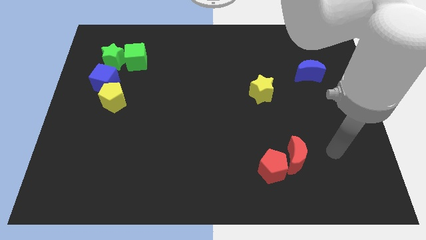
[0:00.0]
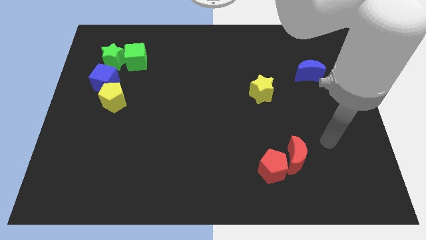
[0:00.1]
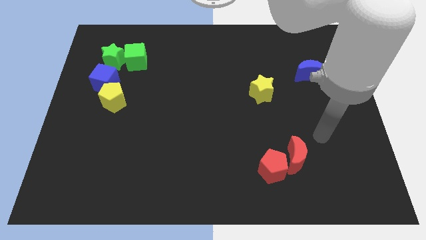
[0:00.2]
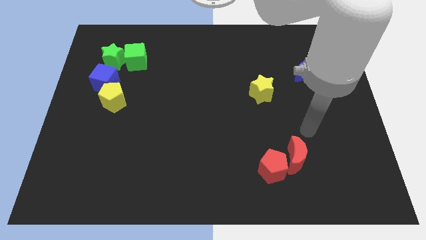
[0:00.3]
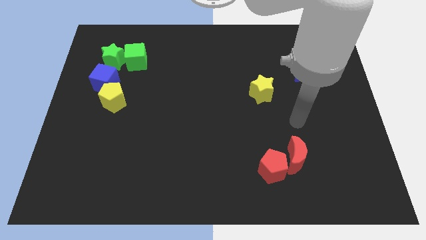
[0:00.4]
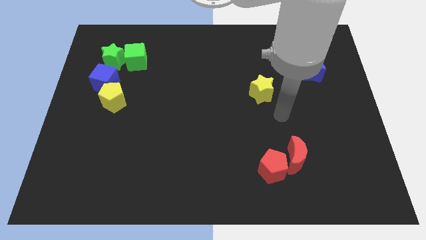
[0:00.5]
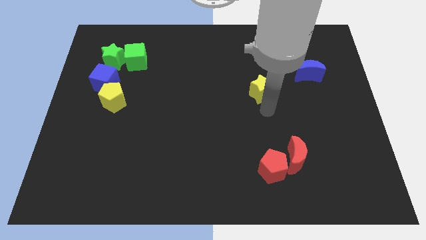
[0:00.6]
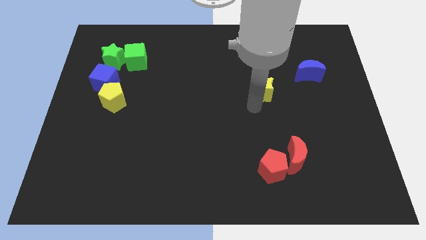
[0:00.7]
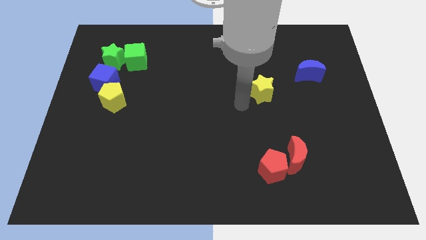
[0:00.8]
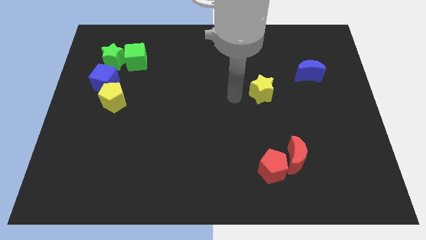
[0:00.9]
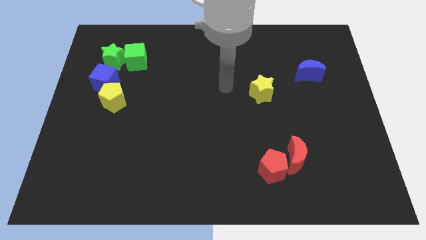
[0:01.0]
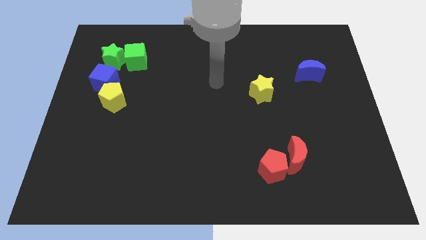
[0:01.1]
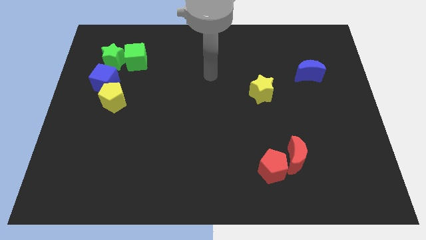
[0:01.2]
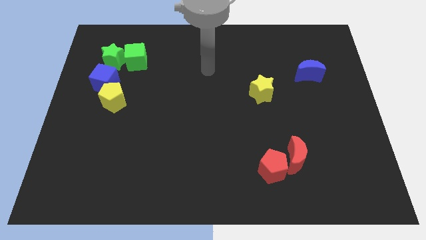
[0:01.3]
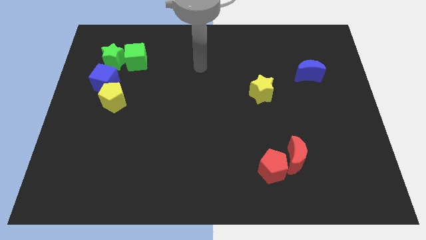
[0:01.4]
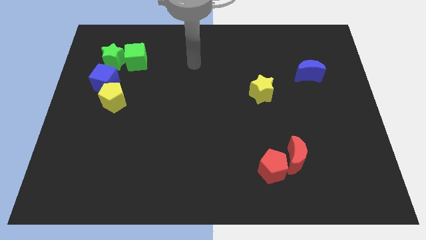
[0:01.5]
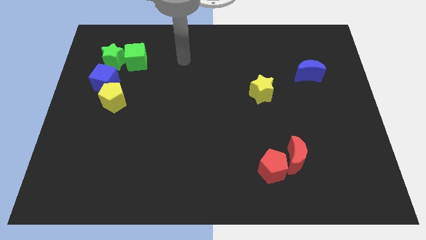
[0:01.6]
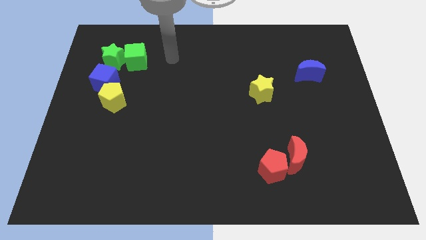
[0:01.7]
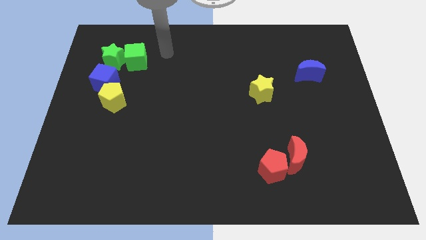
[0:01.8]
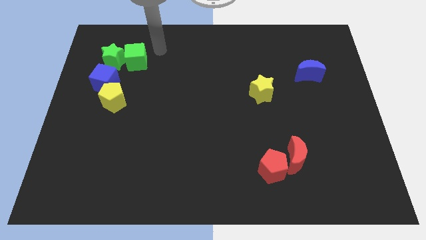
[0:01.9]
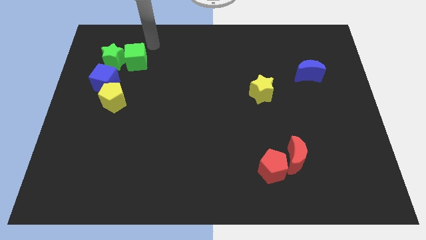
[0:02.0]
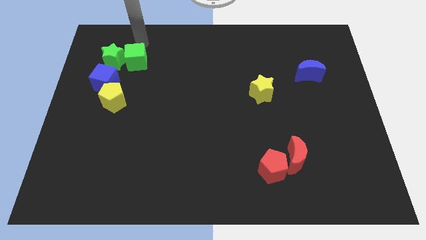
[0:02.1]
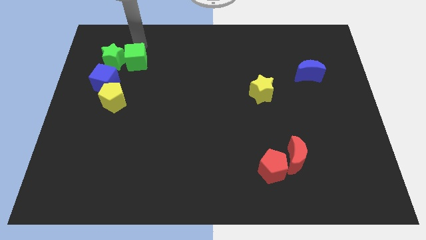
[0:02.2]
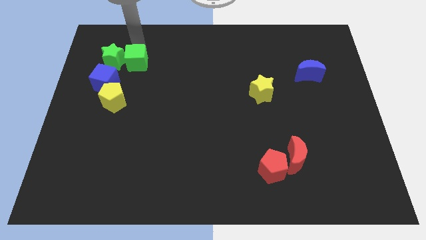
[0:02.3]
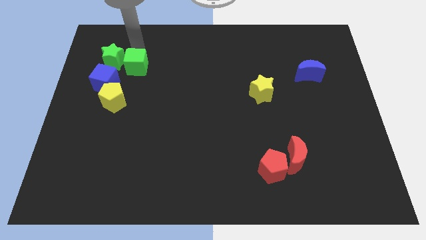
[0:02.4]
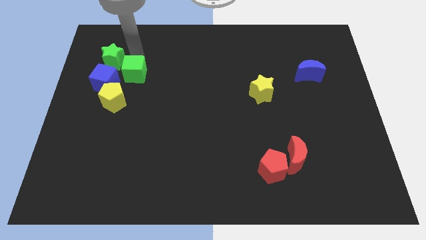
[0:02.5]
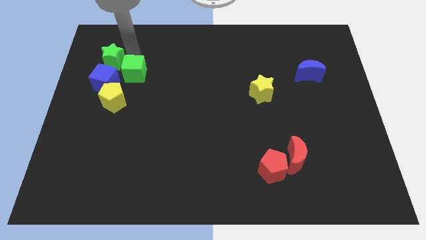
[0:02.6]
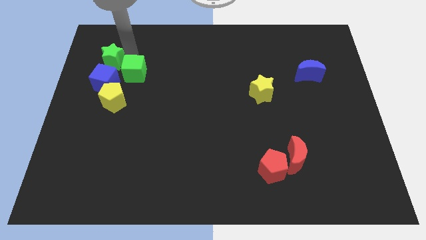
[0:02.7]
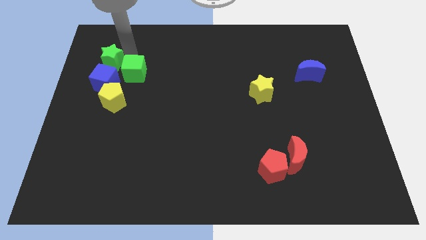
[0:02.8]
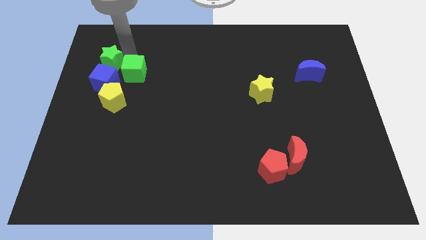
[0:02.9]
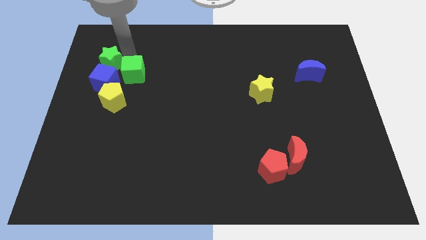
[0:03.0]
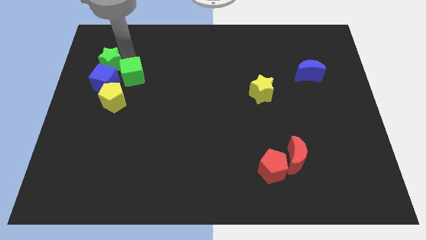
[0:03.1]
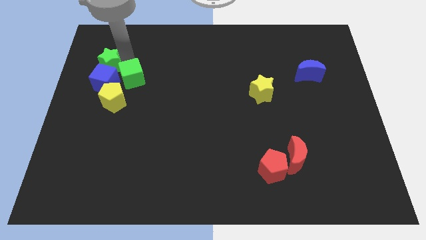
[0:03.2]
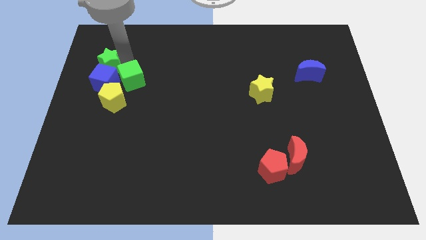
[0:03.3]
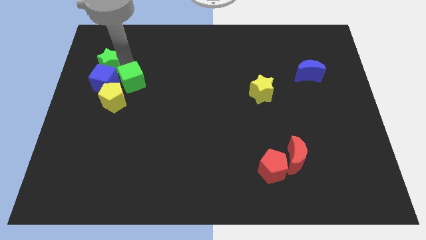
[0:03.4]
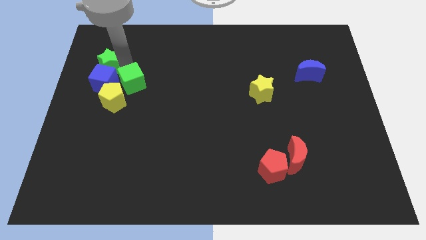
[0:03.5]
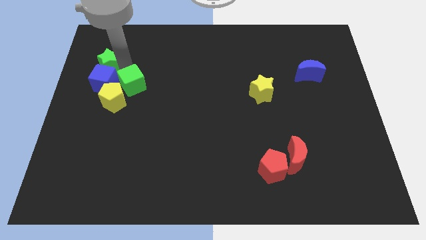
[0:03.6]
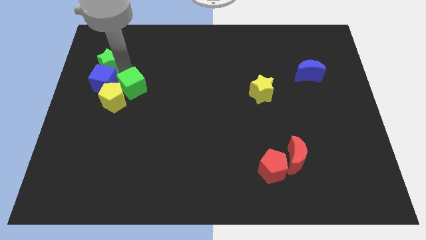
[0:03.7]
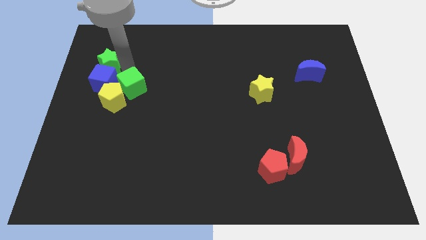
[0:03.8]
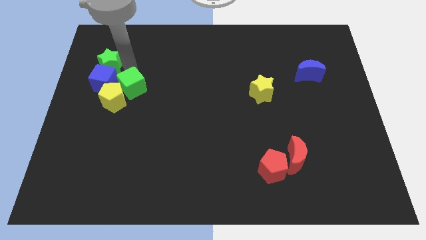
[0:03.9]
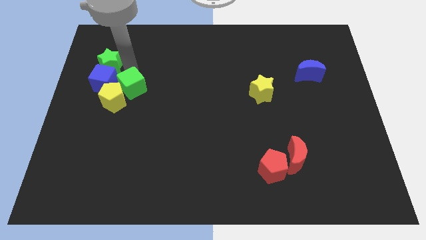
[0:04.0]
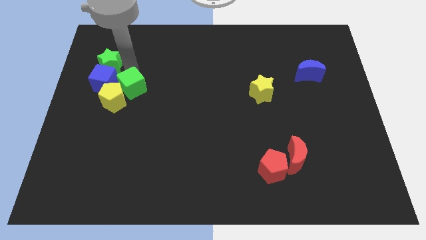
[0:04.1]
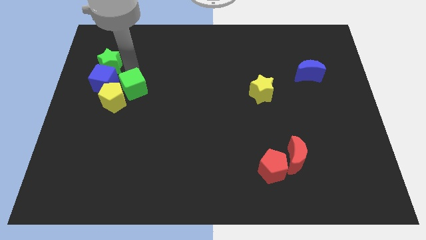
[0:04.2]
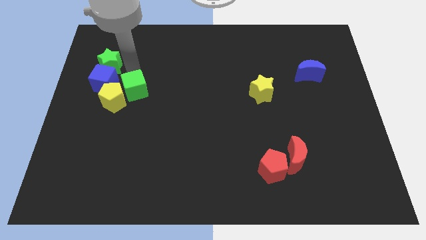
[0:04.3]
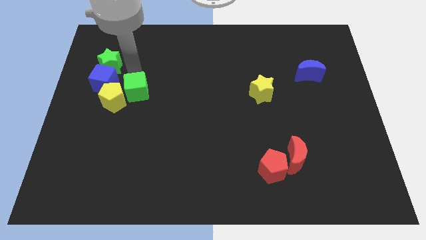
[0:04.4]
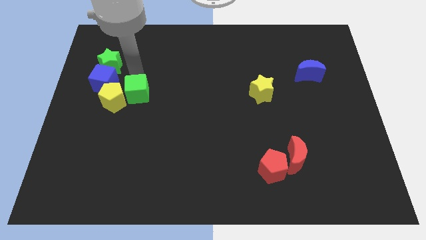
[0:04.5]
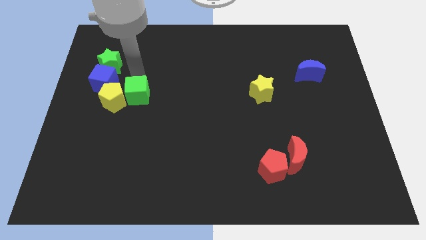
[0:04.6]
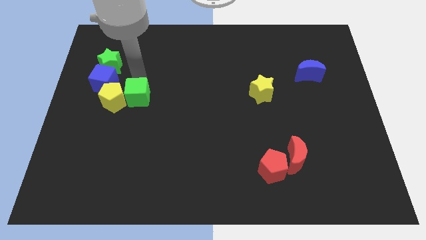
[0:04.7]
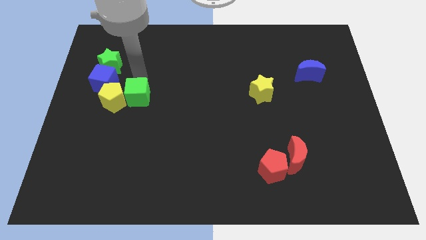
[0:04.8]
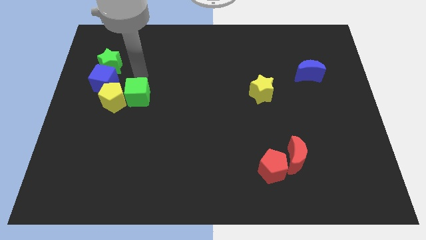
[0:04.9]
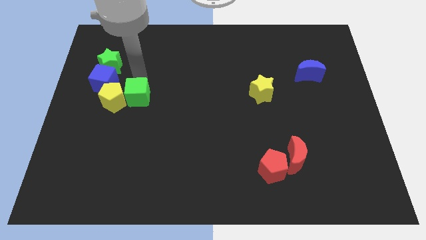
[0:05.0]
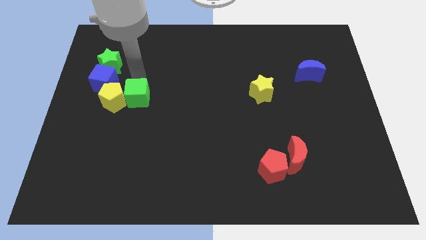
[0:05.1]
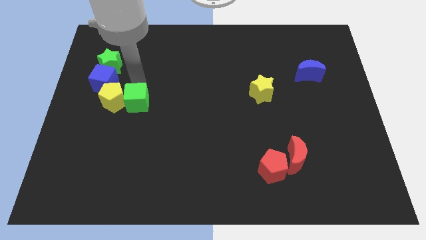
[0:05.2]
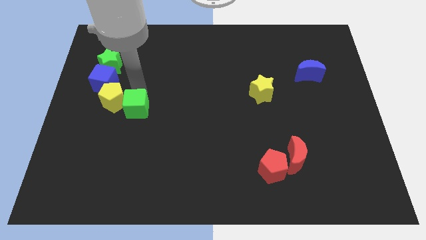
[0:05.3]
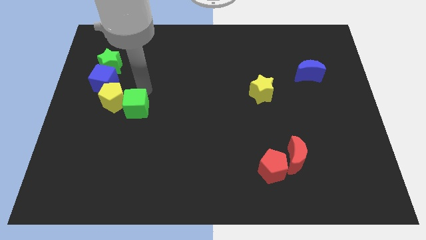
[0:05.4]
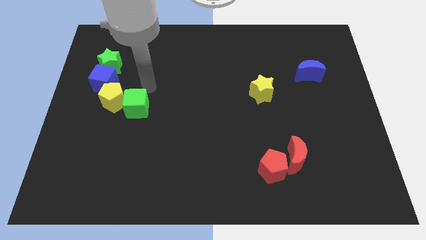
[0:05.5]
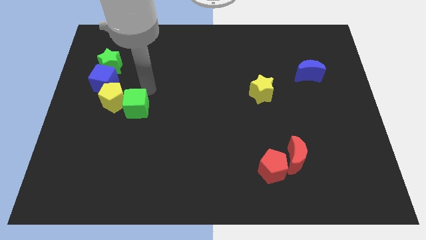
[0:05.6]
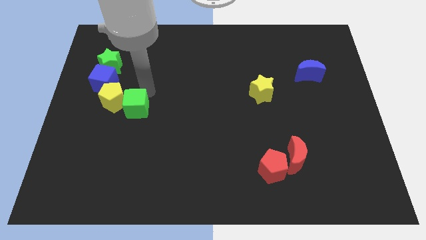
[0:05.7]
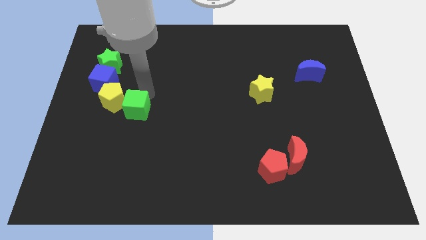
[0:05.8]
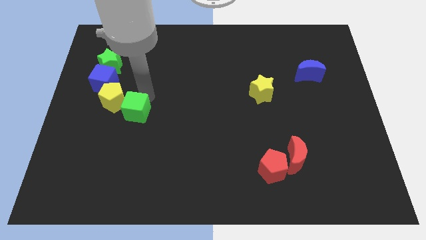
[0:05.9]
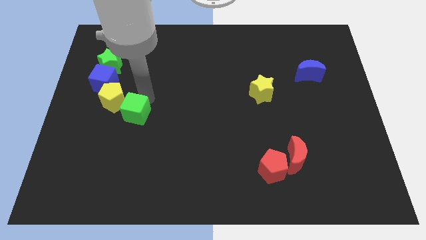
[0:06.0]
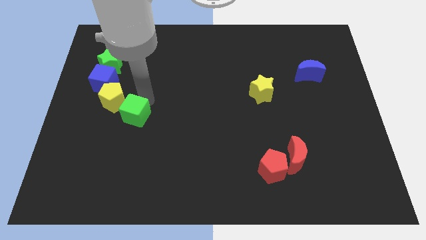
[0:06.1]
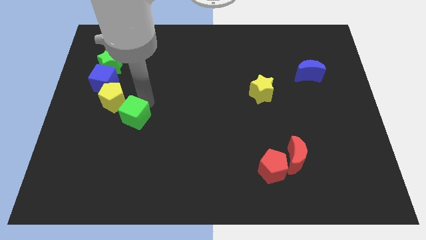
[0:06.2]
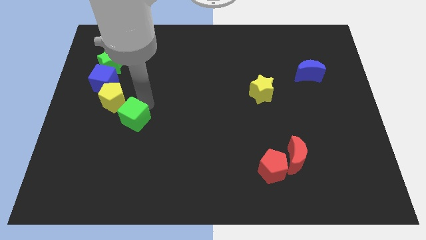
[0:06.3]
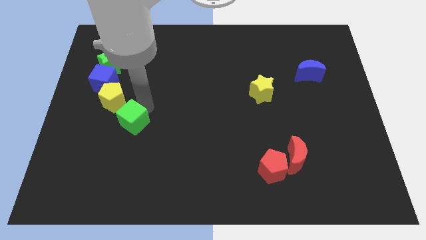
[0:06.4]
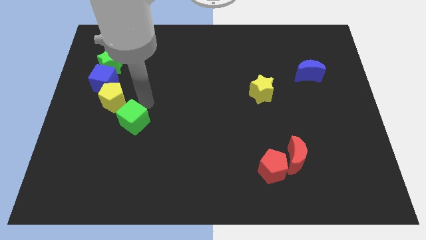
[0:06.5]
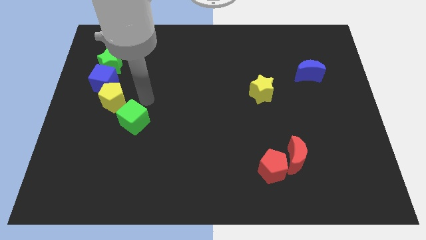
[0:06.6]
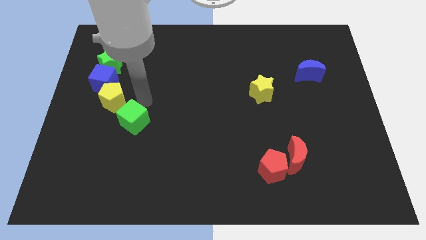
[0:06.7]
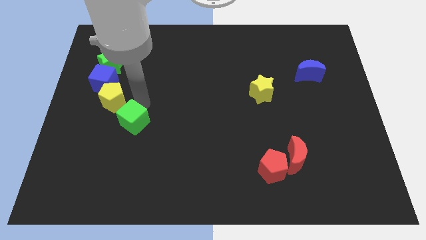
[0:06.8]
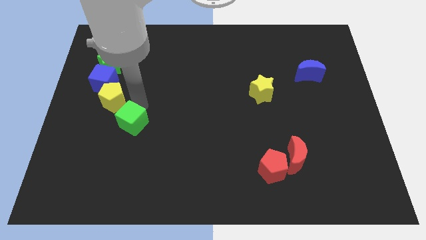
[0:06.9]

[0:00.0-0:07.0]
slide the green cube down

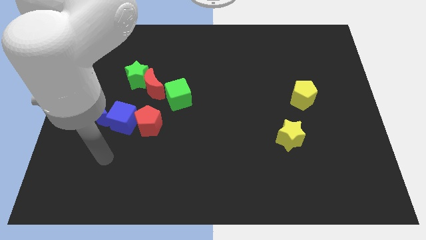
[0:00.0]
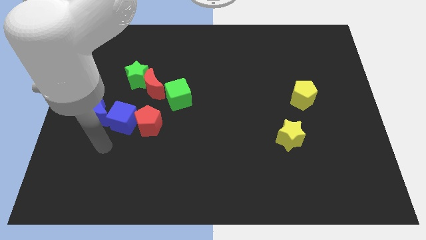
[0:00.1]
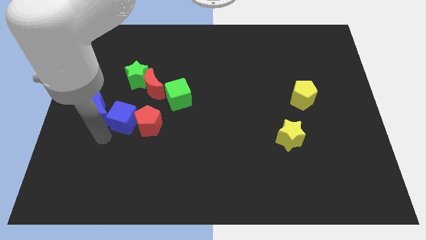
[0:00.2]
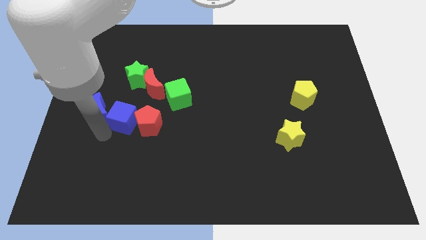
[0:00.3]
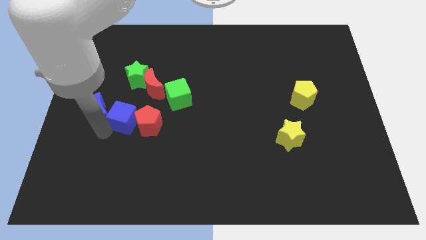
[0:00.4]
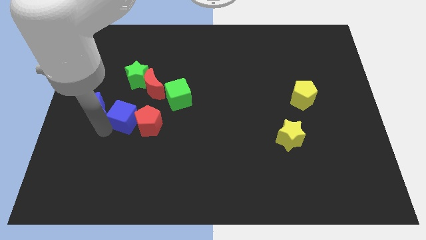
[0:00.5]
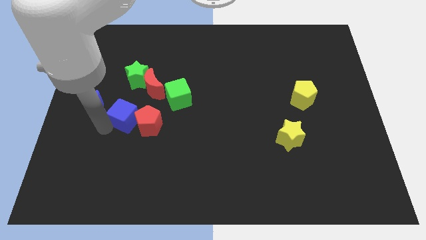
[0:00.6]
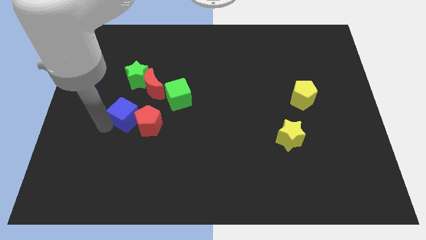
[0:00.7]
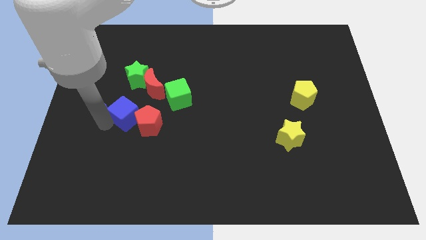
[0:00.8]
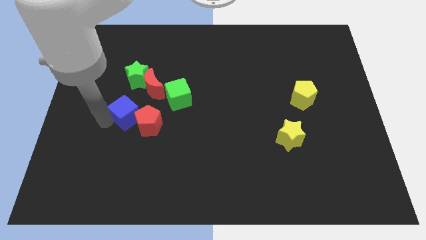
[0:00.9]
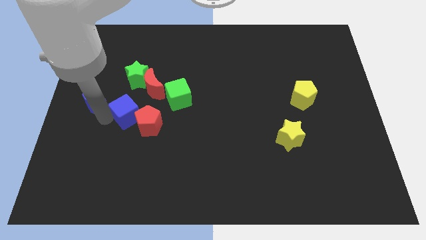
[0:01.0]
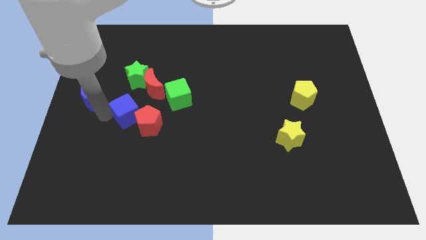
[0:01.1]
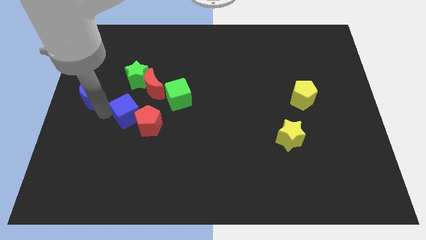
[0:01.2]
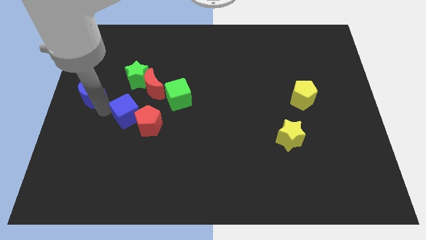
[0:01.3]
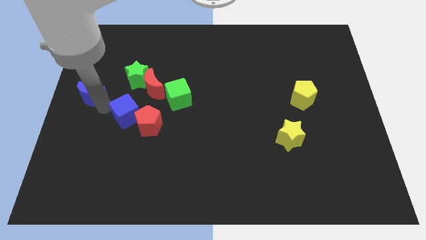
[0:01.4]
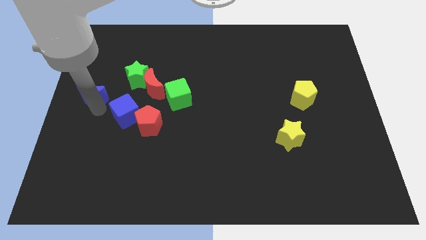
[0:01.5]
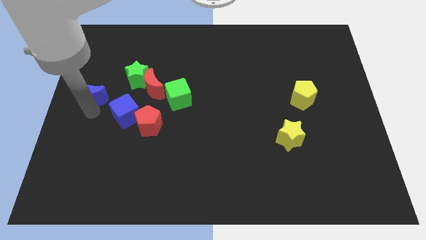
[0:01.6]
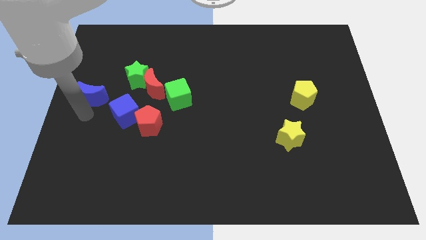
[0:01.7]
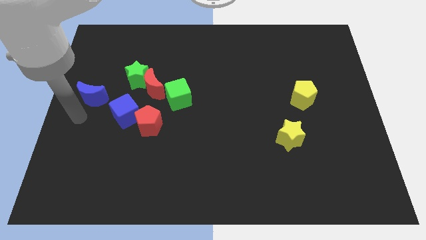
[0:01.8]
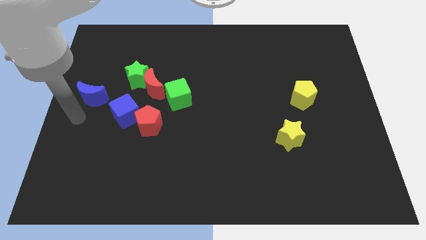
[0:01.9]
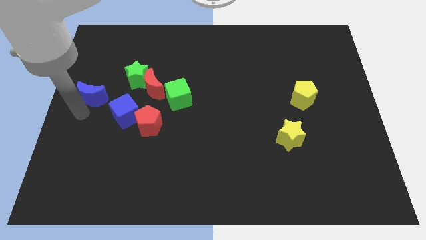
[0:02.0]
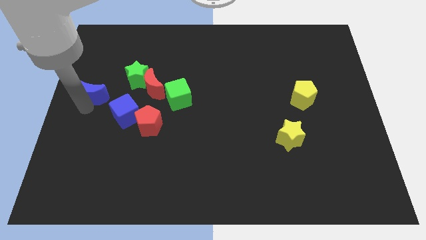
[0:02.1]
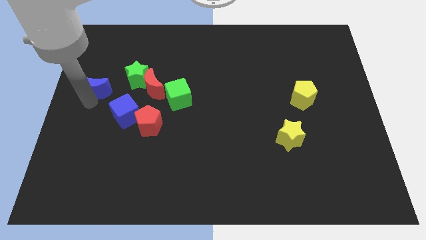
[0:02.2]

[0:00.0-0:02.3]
slightly slide the blue moon up
